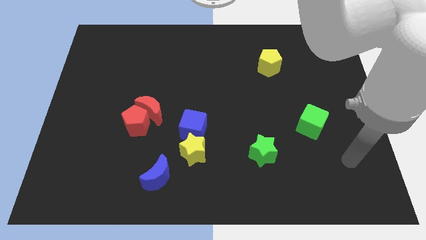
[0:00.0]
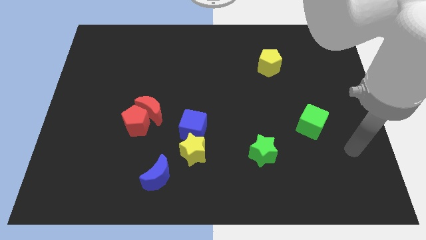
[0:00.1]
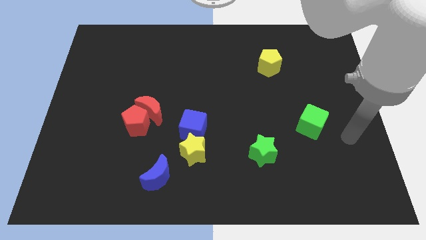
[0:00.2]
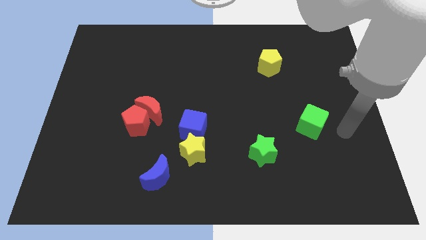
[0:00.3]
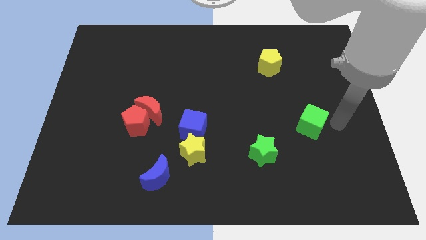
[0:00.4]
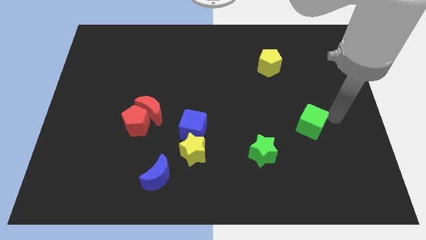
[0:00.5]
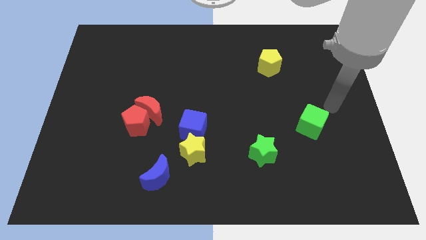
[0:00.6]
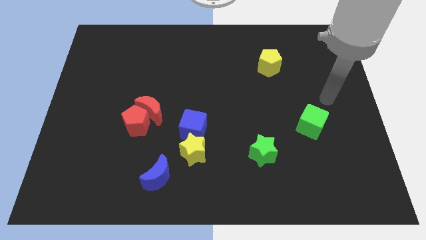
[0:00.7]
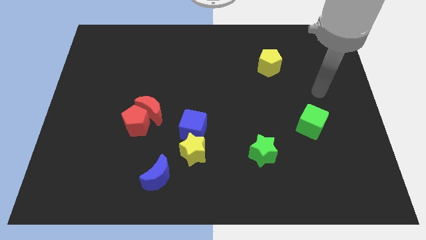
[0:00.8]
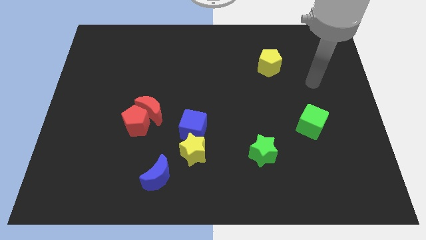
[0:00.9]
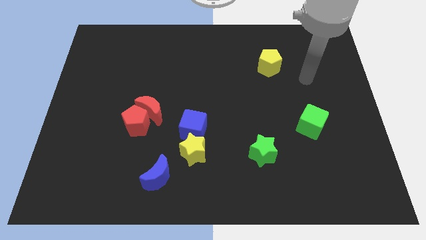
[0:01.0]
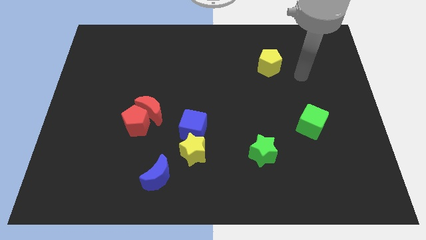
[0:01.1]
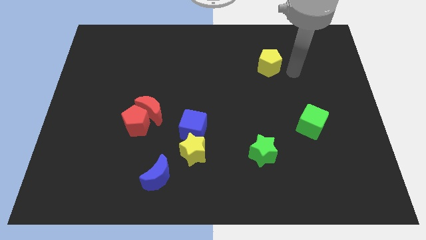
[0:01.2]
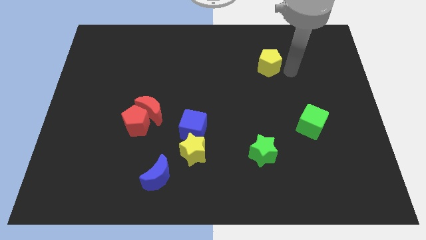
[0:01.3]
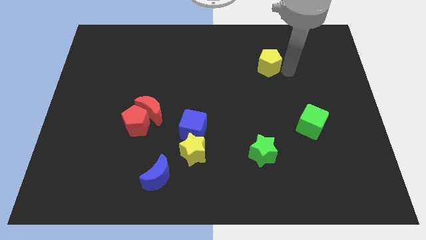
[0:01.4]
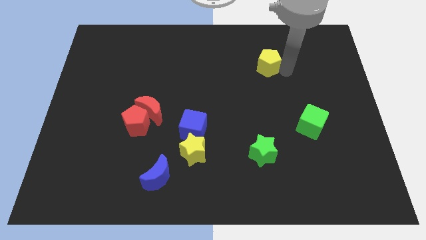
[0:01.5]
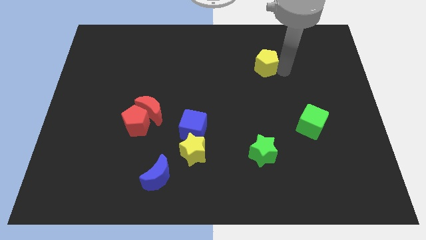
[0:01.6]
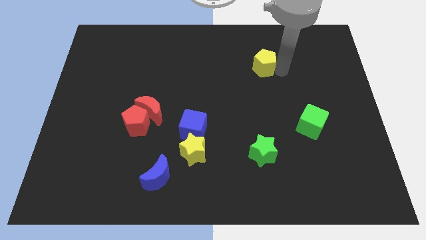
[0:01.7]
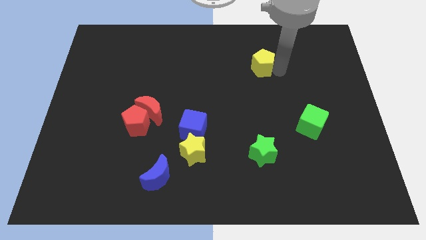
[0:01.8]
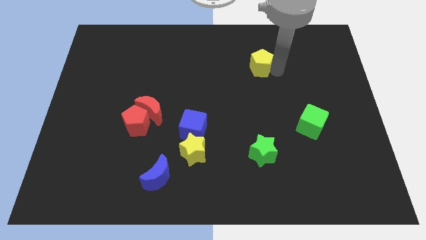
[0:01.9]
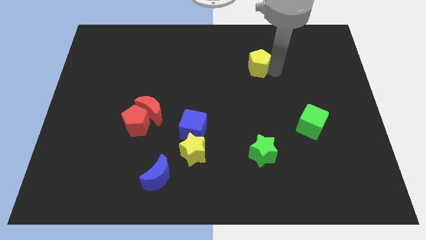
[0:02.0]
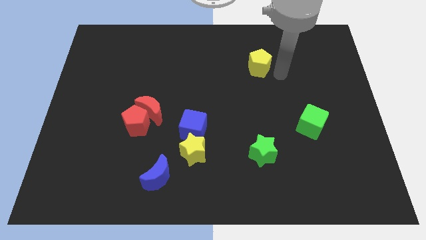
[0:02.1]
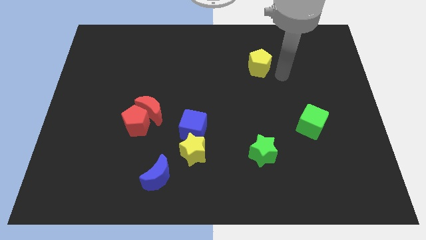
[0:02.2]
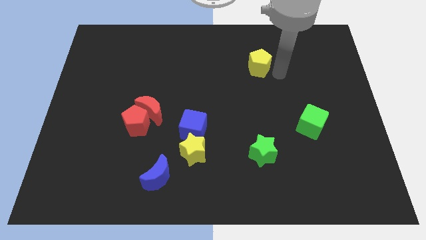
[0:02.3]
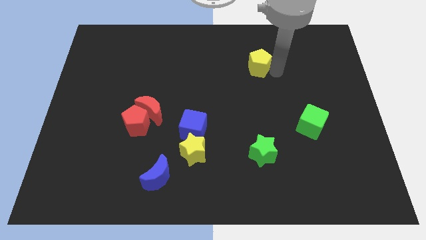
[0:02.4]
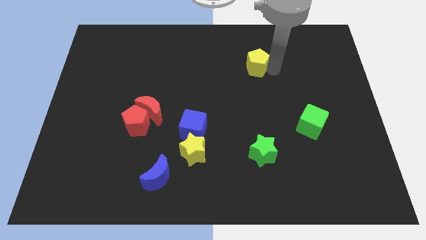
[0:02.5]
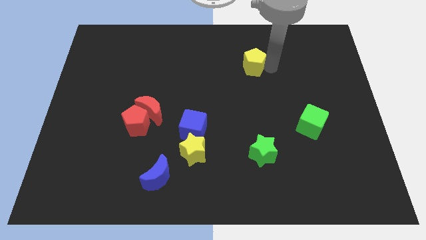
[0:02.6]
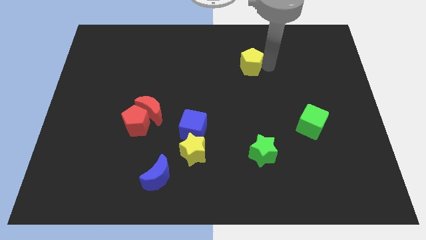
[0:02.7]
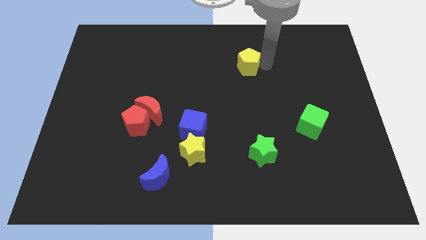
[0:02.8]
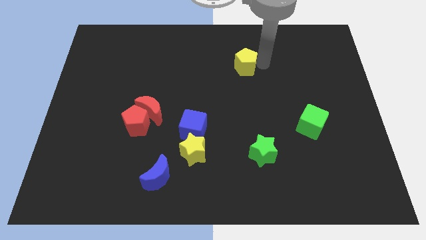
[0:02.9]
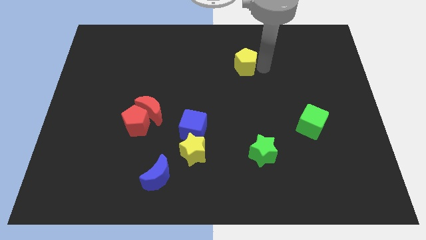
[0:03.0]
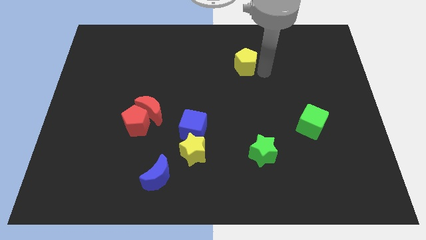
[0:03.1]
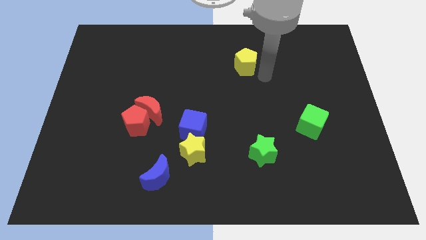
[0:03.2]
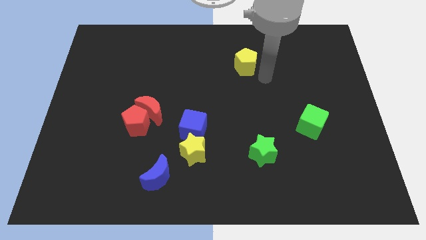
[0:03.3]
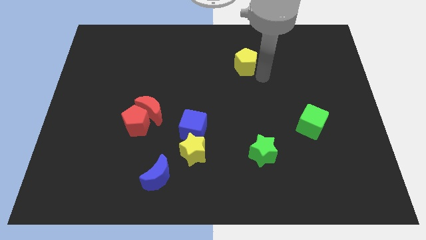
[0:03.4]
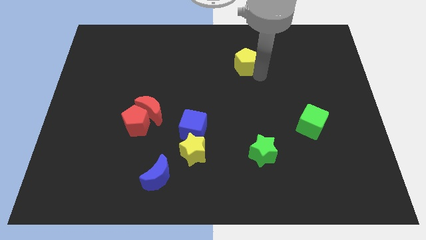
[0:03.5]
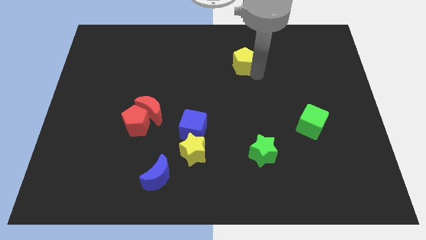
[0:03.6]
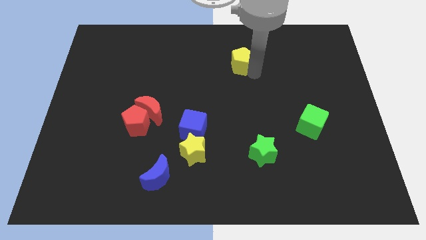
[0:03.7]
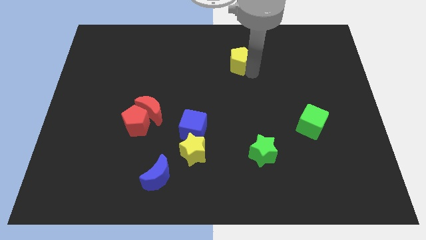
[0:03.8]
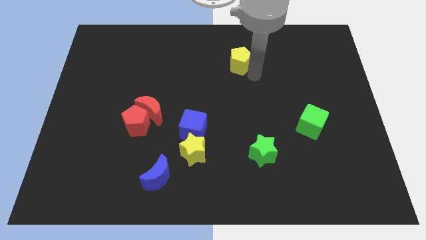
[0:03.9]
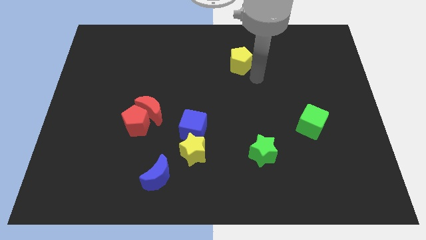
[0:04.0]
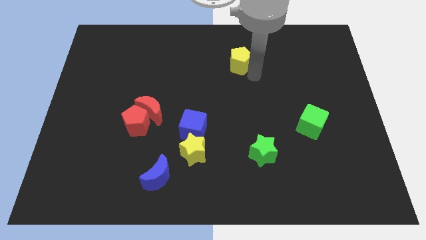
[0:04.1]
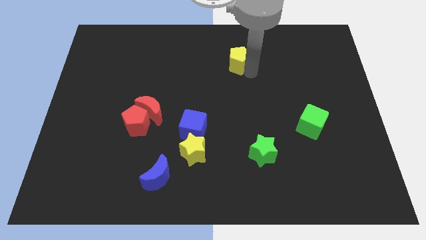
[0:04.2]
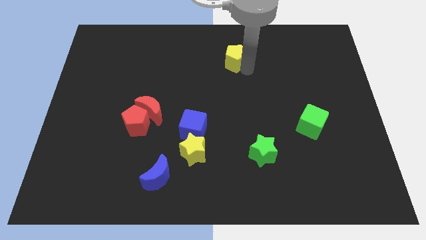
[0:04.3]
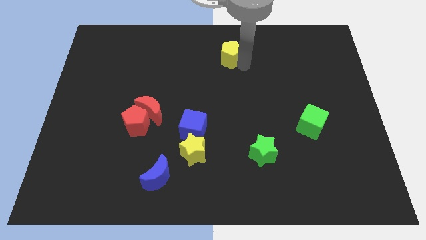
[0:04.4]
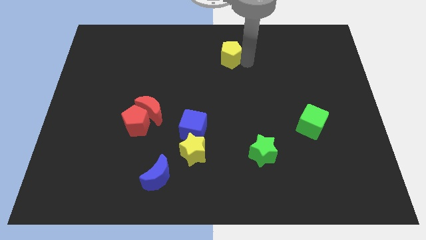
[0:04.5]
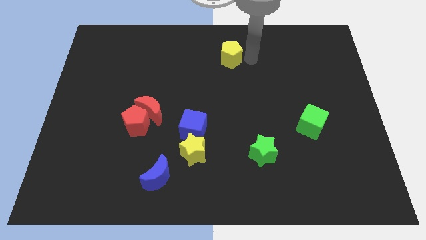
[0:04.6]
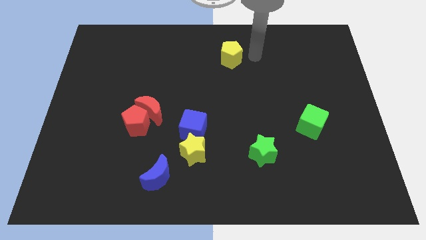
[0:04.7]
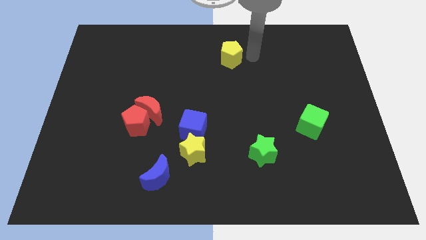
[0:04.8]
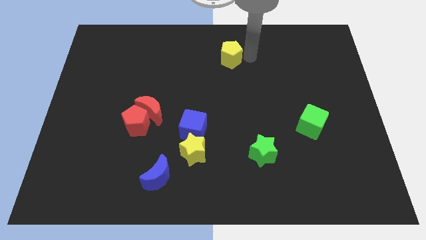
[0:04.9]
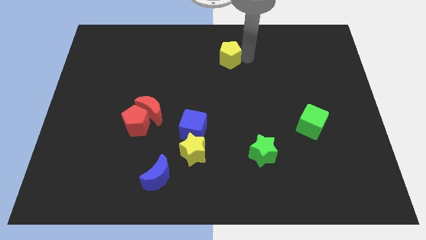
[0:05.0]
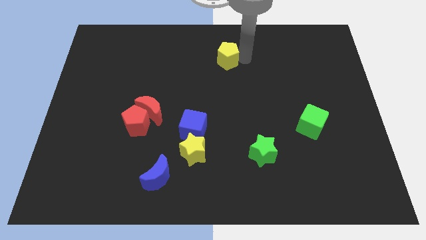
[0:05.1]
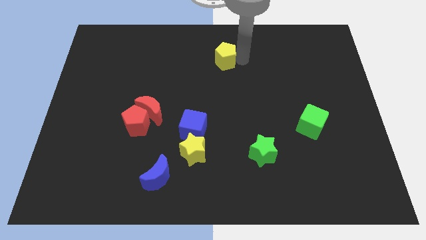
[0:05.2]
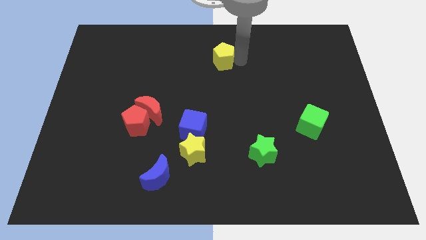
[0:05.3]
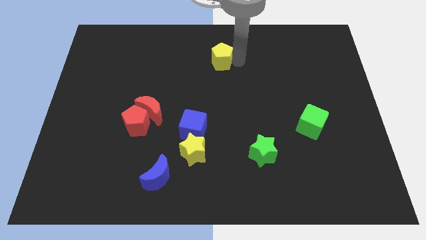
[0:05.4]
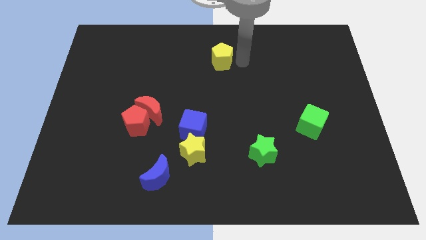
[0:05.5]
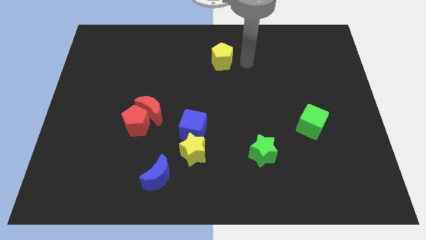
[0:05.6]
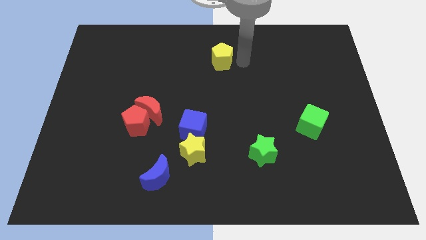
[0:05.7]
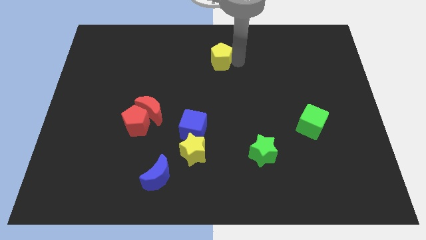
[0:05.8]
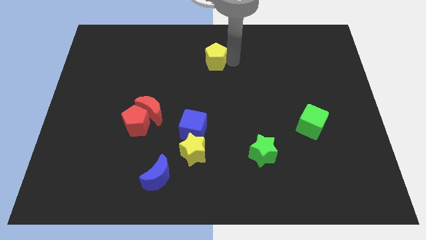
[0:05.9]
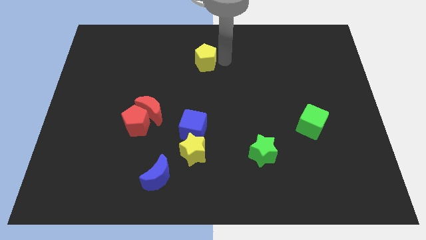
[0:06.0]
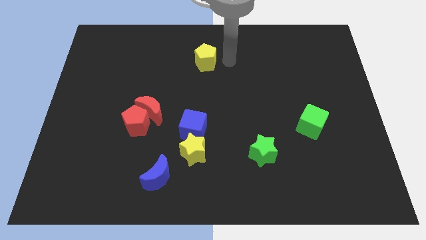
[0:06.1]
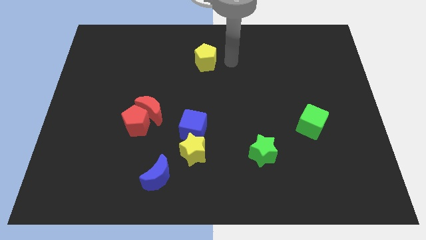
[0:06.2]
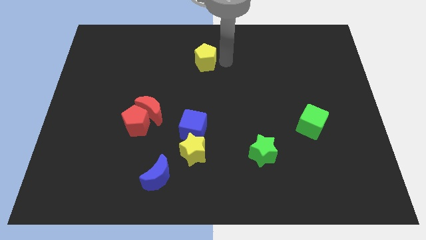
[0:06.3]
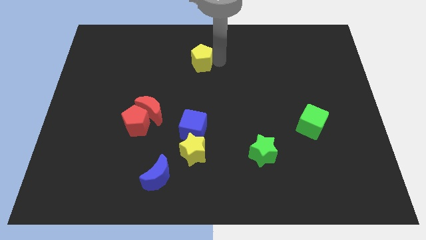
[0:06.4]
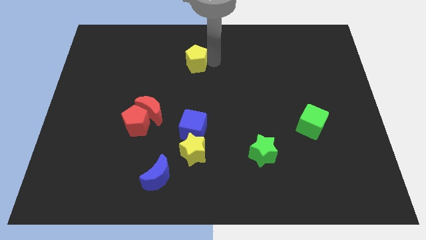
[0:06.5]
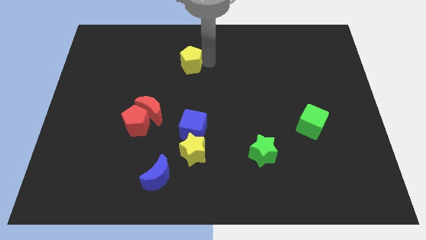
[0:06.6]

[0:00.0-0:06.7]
slide the yellow pentagon to the left

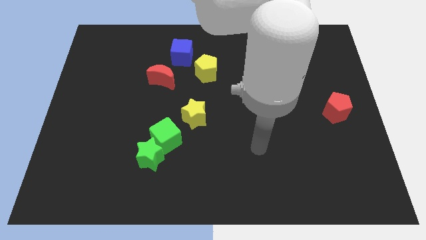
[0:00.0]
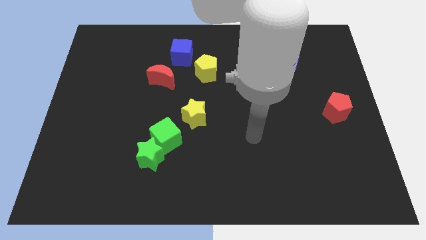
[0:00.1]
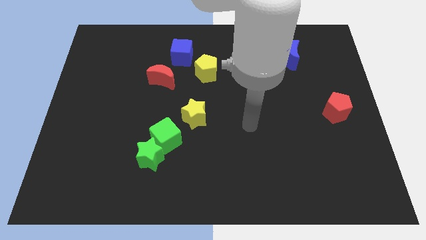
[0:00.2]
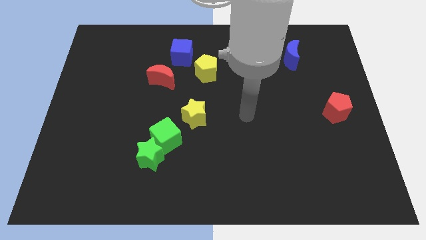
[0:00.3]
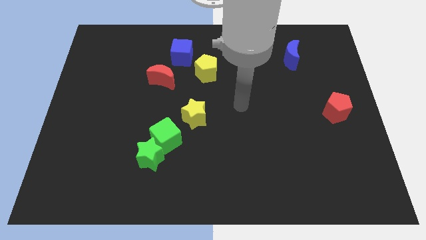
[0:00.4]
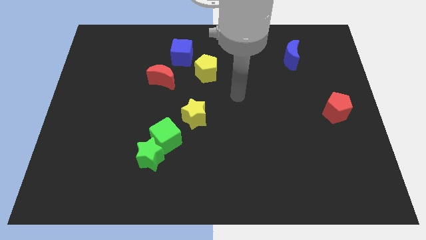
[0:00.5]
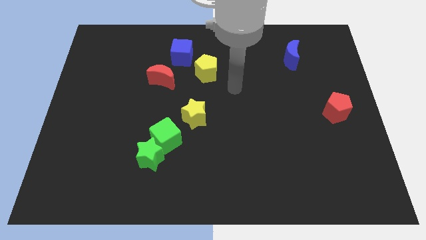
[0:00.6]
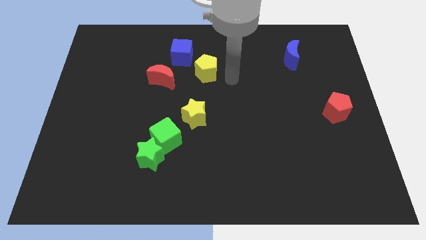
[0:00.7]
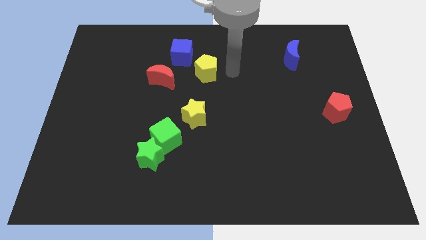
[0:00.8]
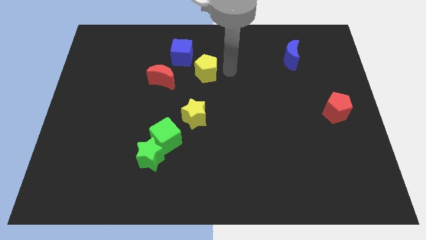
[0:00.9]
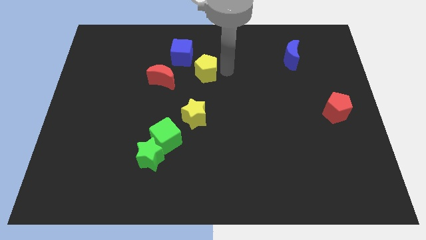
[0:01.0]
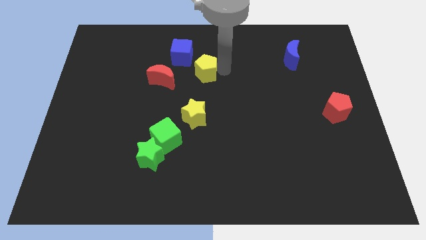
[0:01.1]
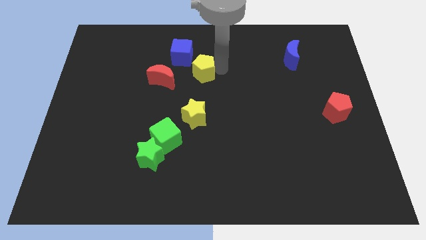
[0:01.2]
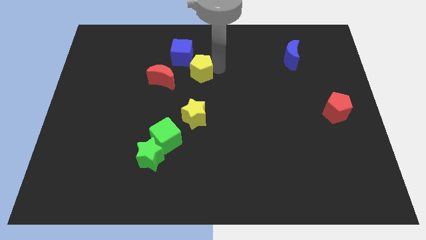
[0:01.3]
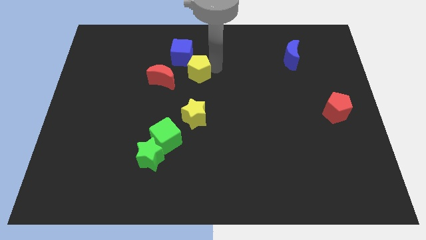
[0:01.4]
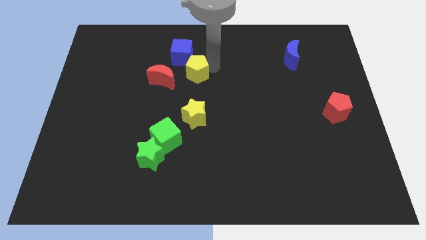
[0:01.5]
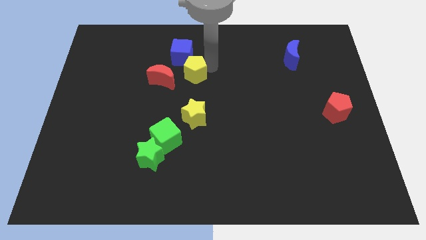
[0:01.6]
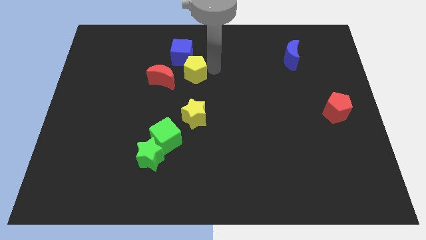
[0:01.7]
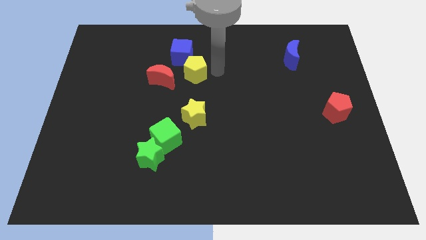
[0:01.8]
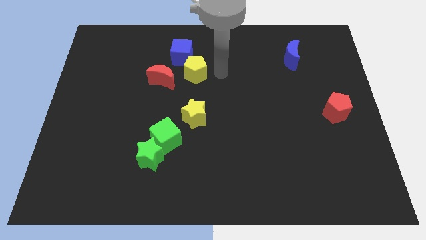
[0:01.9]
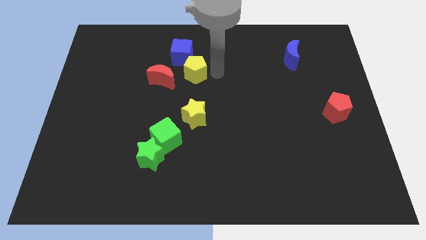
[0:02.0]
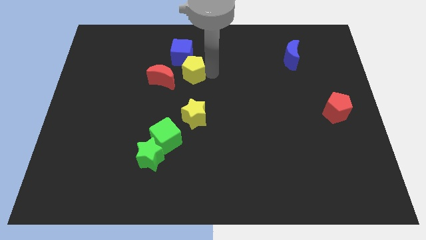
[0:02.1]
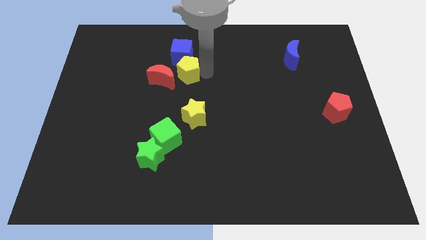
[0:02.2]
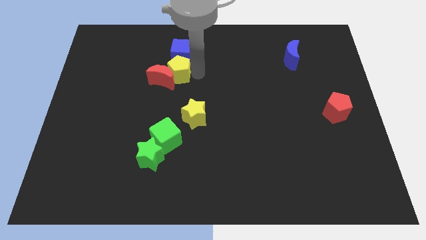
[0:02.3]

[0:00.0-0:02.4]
push the yellow pentagon slightly to the left
